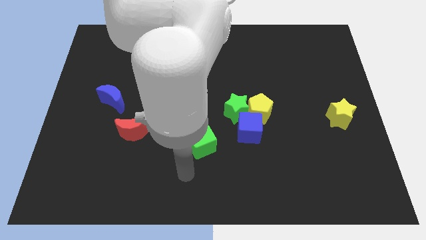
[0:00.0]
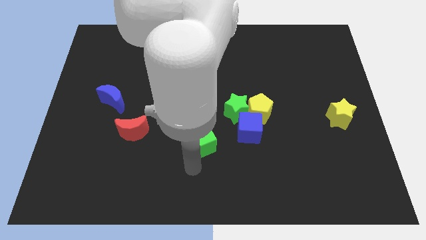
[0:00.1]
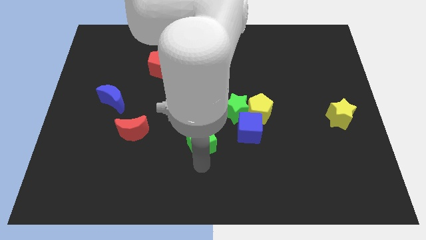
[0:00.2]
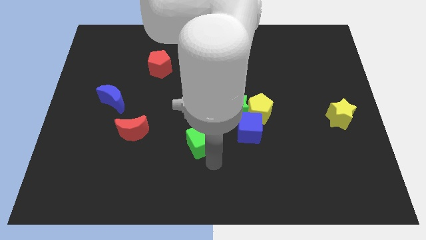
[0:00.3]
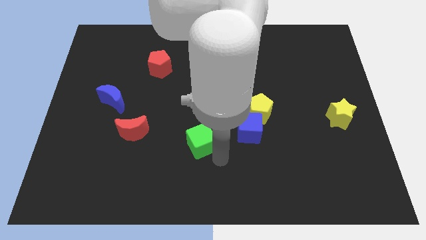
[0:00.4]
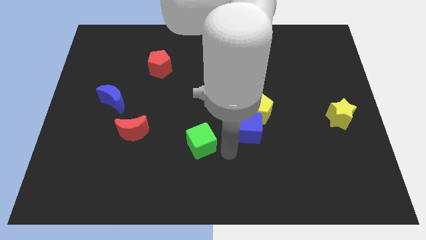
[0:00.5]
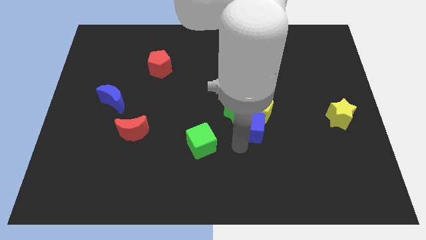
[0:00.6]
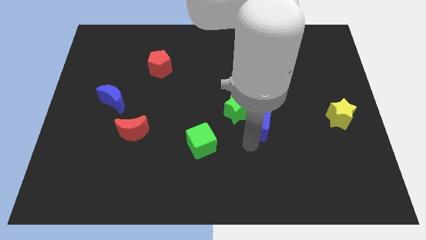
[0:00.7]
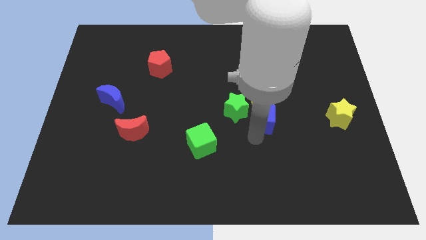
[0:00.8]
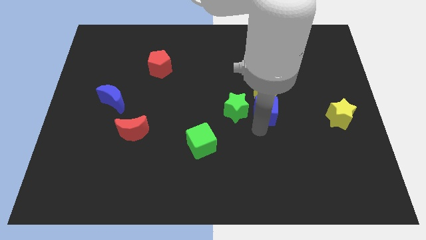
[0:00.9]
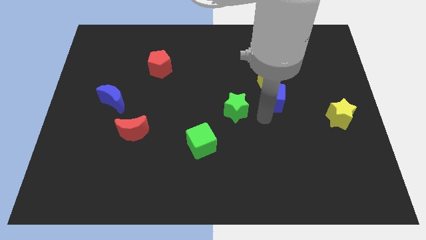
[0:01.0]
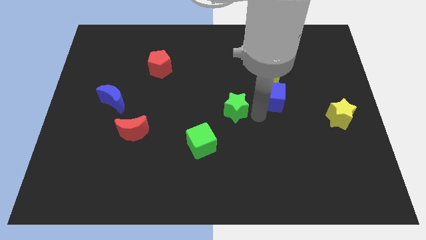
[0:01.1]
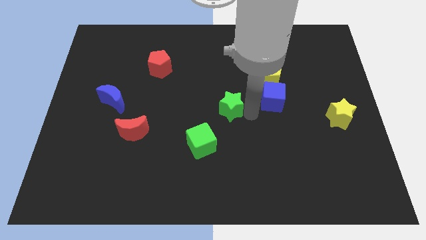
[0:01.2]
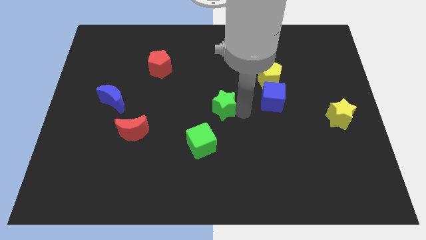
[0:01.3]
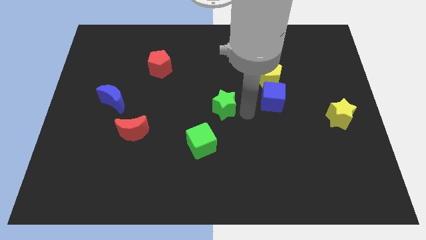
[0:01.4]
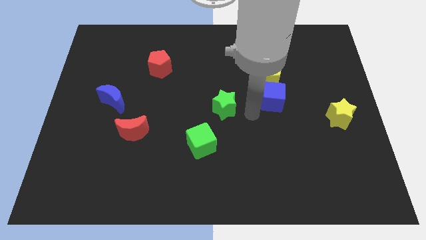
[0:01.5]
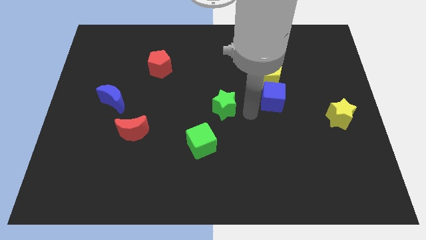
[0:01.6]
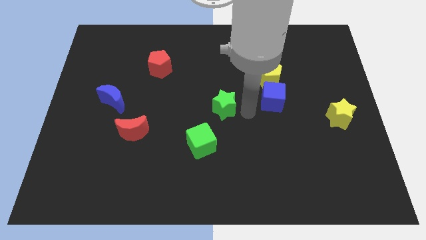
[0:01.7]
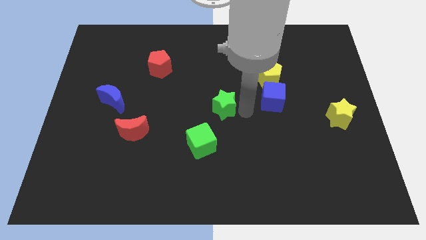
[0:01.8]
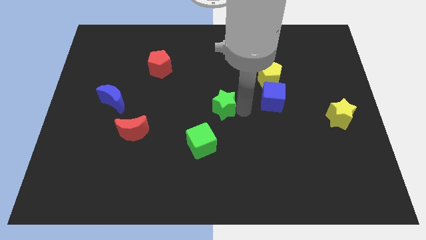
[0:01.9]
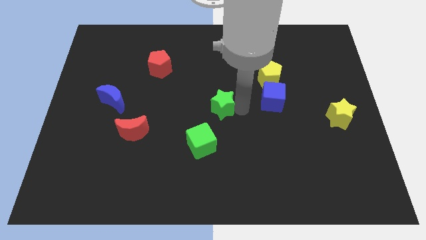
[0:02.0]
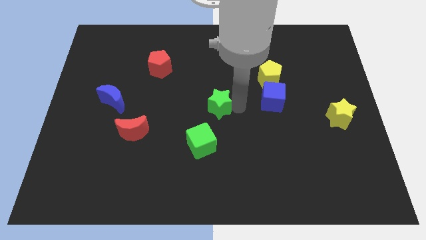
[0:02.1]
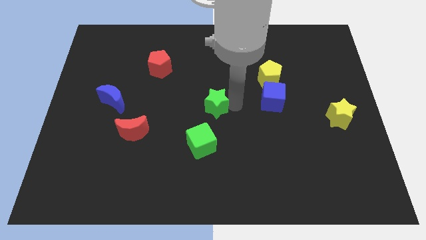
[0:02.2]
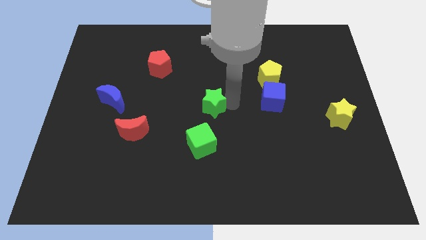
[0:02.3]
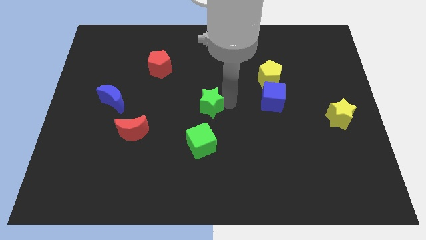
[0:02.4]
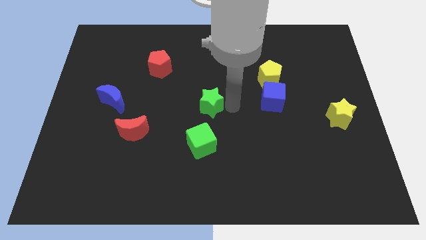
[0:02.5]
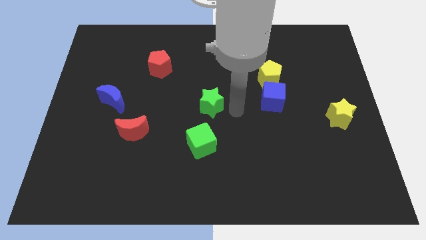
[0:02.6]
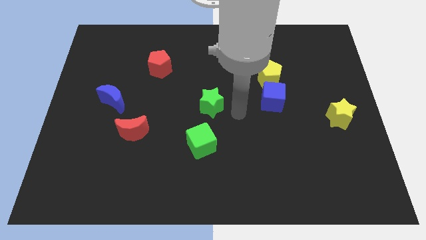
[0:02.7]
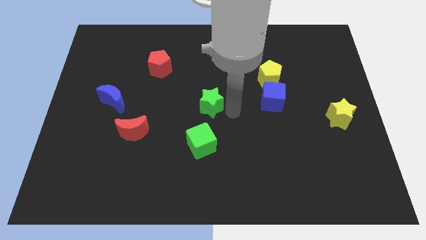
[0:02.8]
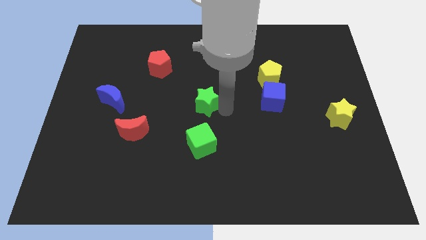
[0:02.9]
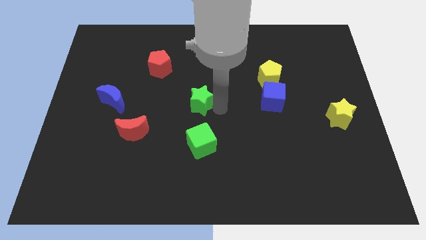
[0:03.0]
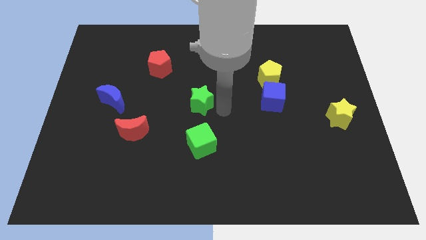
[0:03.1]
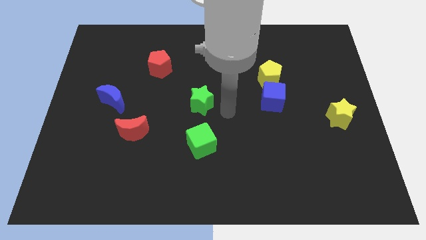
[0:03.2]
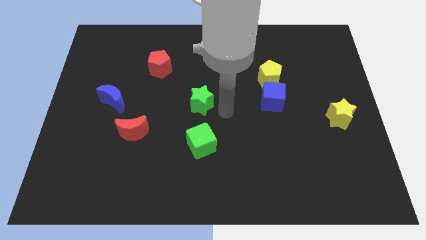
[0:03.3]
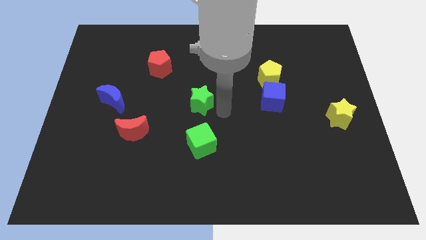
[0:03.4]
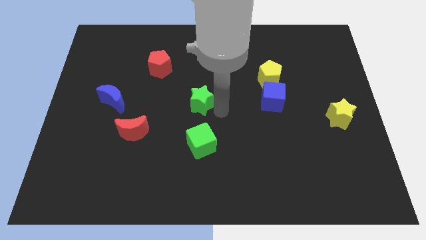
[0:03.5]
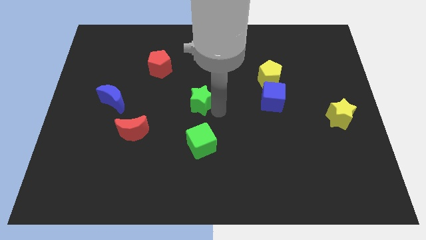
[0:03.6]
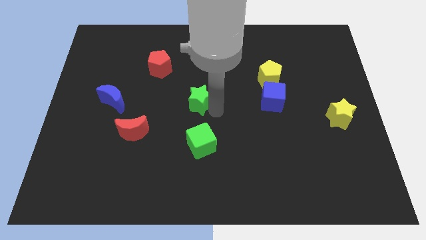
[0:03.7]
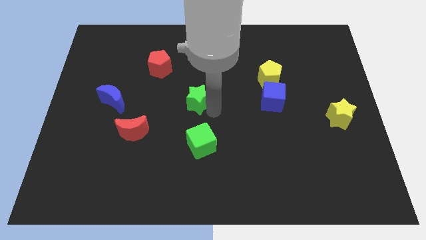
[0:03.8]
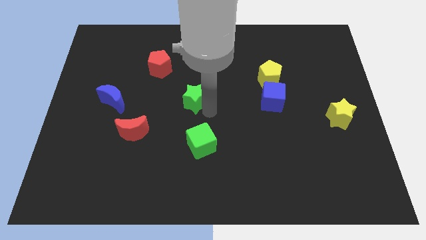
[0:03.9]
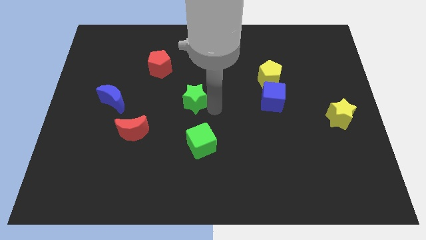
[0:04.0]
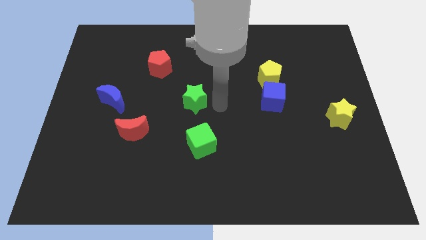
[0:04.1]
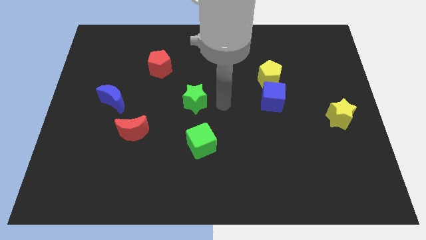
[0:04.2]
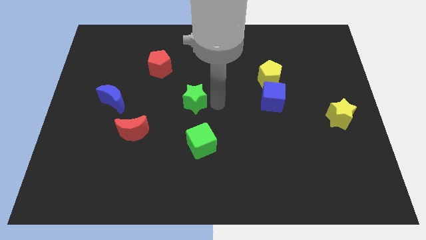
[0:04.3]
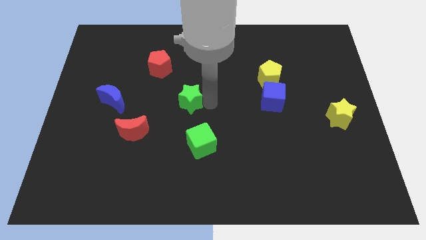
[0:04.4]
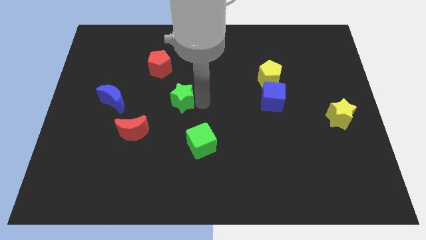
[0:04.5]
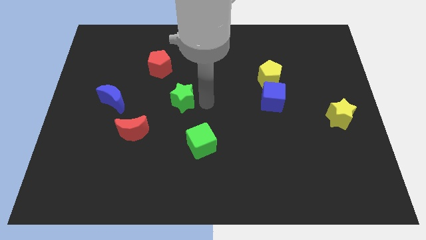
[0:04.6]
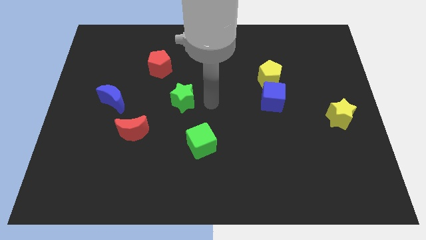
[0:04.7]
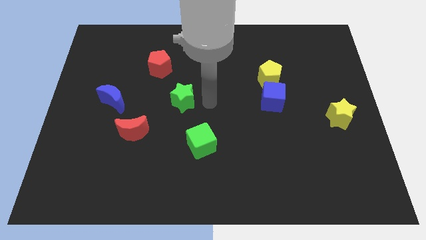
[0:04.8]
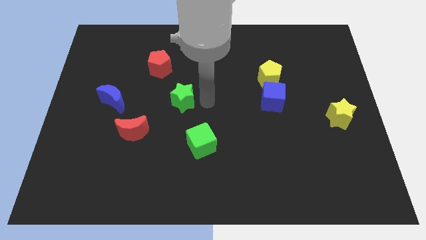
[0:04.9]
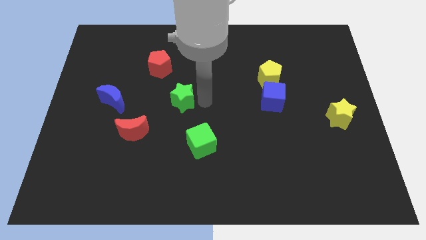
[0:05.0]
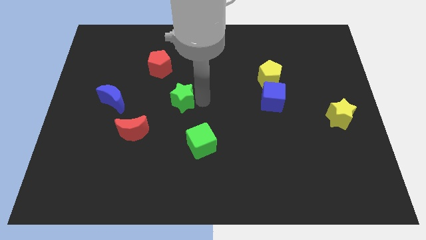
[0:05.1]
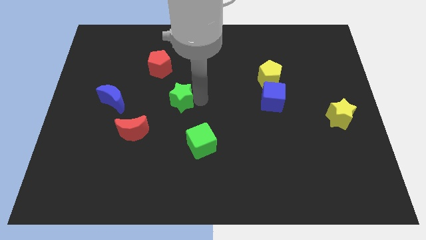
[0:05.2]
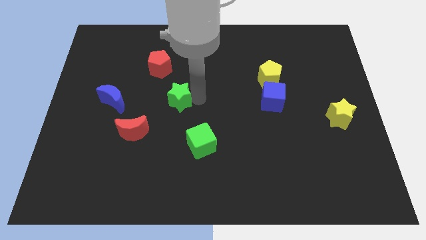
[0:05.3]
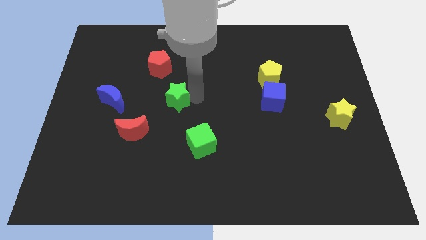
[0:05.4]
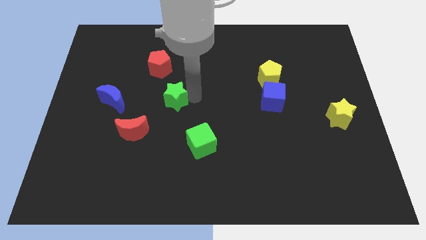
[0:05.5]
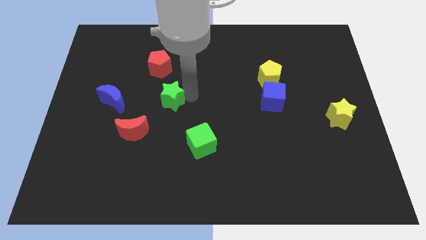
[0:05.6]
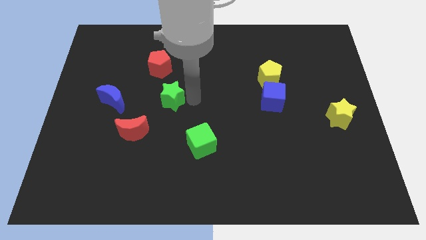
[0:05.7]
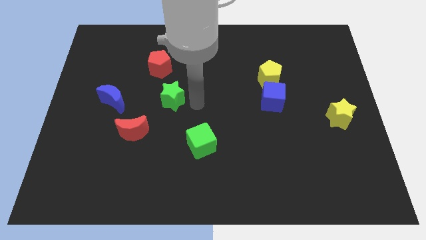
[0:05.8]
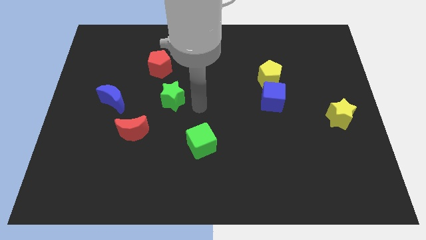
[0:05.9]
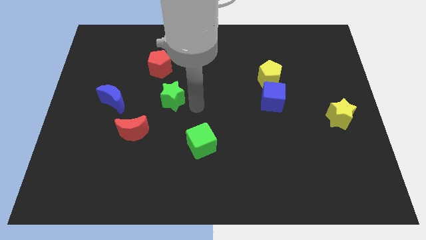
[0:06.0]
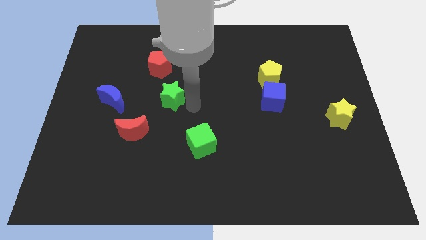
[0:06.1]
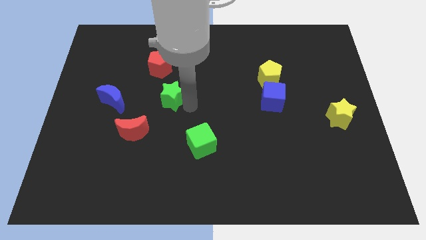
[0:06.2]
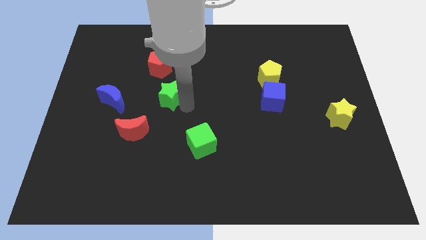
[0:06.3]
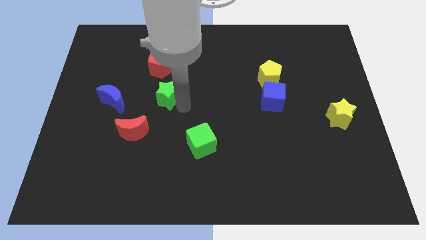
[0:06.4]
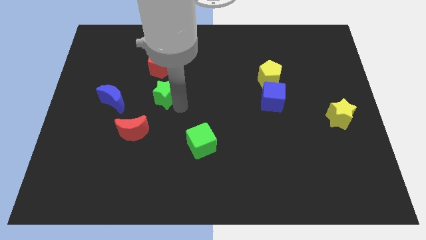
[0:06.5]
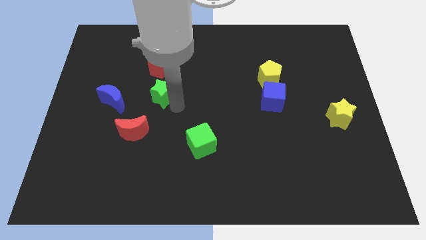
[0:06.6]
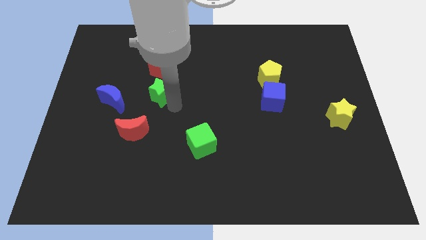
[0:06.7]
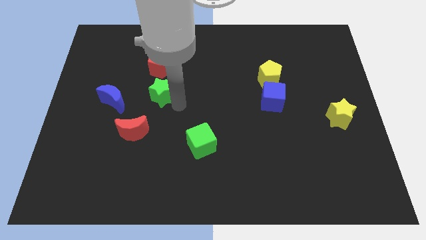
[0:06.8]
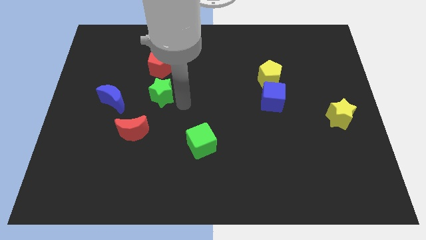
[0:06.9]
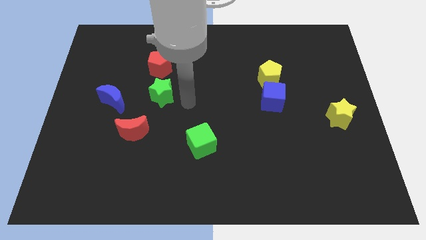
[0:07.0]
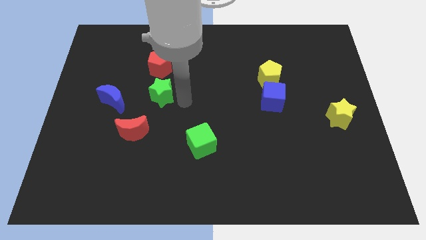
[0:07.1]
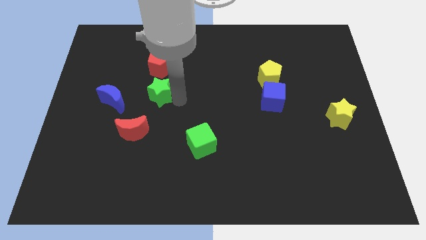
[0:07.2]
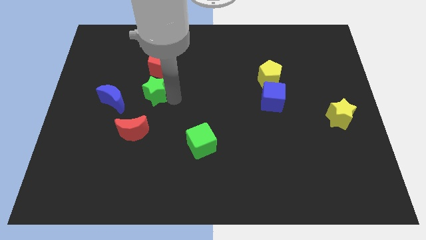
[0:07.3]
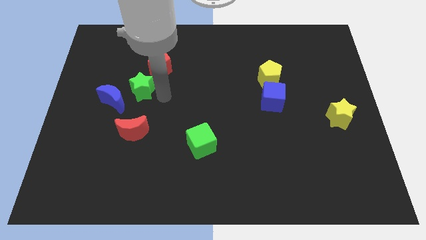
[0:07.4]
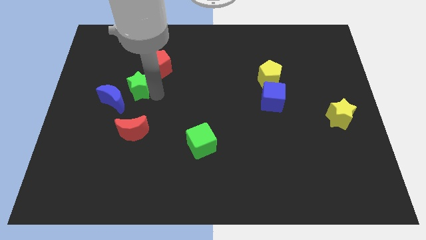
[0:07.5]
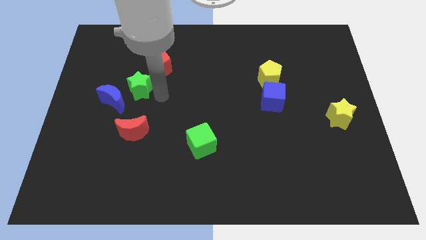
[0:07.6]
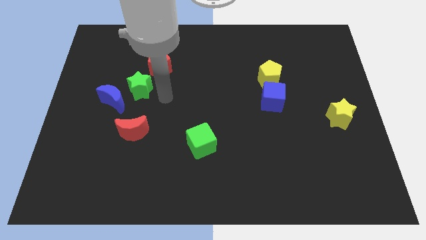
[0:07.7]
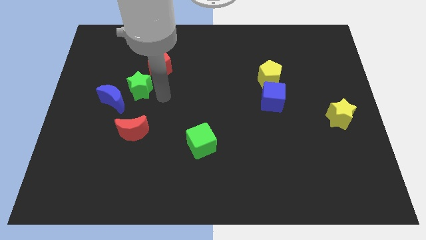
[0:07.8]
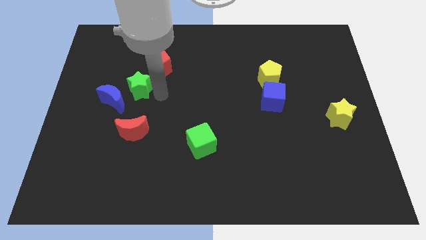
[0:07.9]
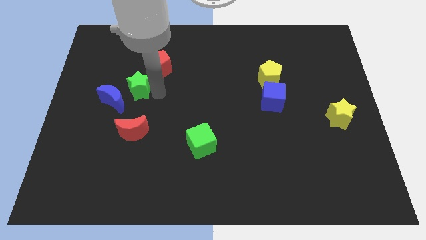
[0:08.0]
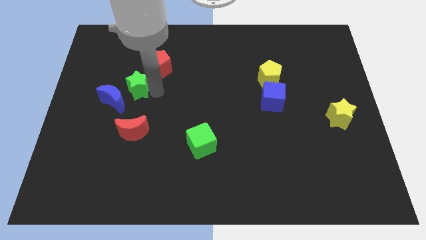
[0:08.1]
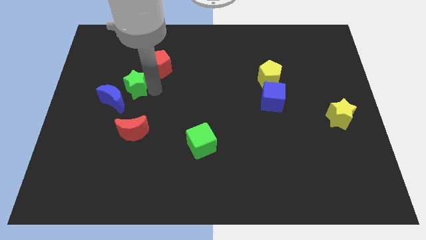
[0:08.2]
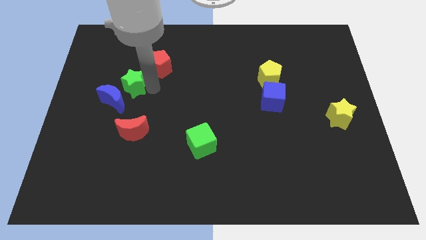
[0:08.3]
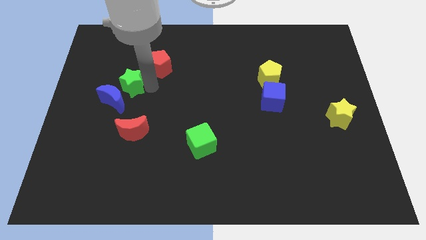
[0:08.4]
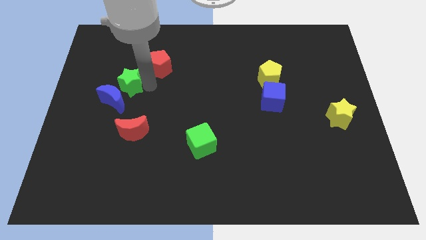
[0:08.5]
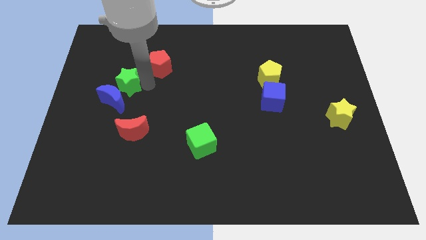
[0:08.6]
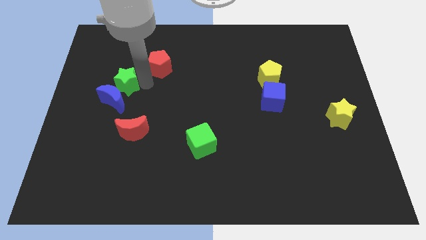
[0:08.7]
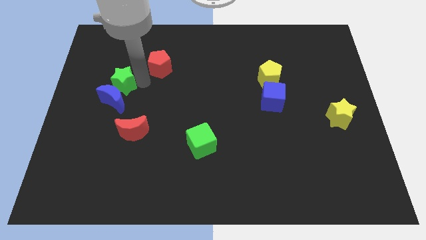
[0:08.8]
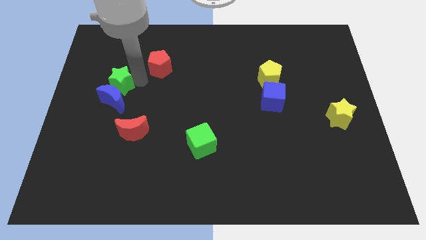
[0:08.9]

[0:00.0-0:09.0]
push the green star diagonally up and to the left of the blue moon
